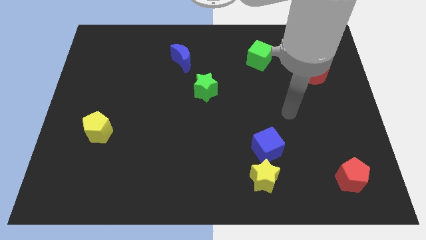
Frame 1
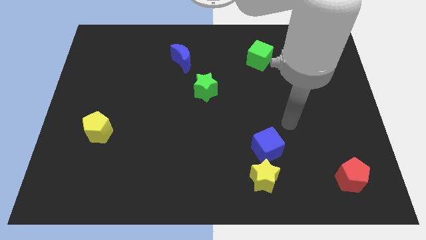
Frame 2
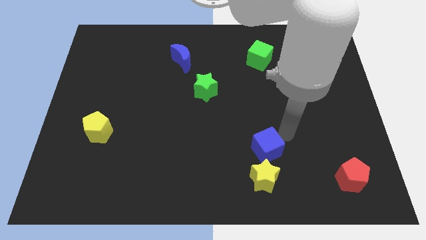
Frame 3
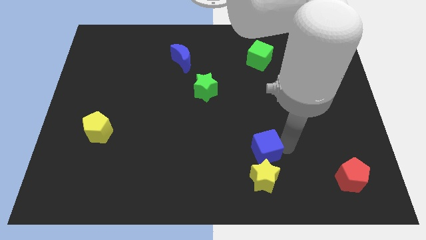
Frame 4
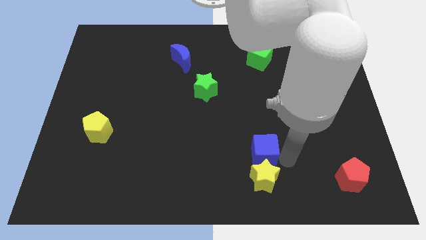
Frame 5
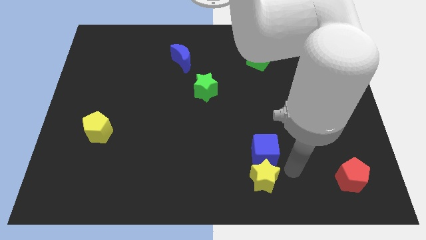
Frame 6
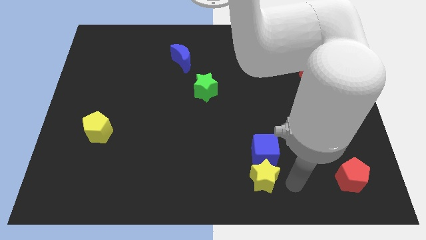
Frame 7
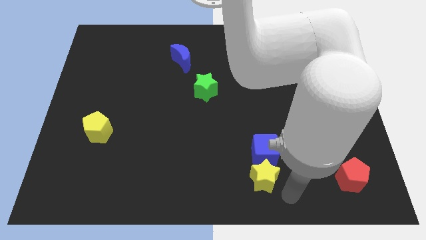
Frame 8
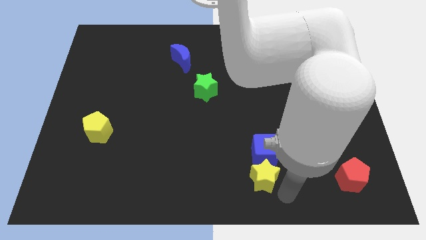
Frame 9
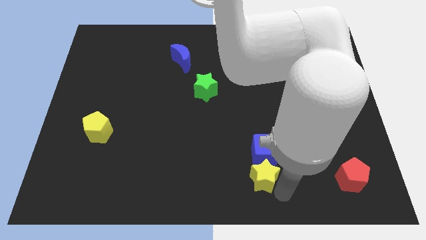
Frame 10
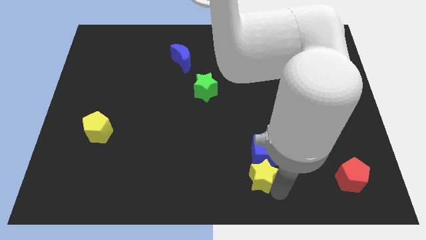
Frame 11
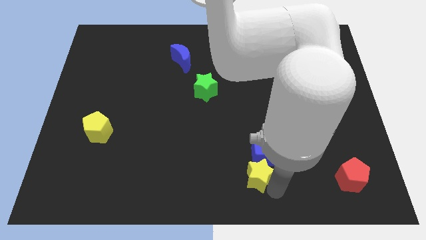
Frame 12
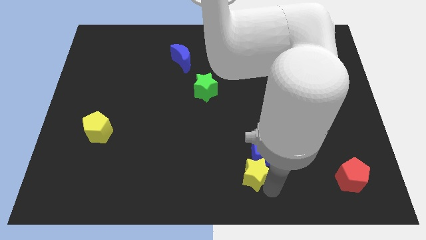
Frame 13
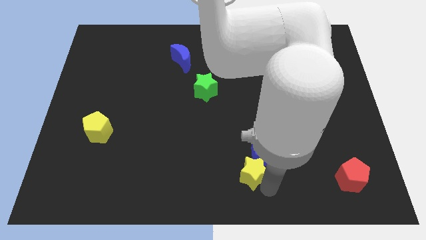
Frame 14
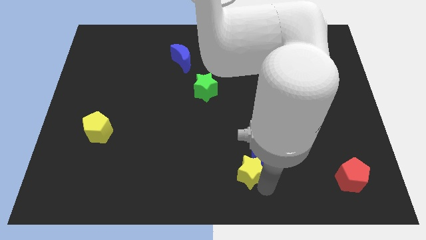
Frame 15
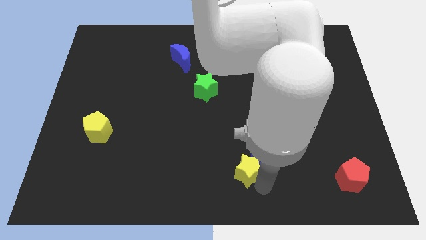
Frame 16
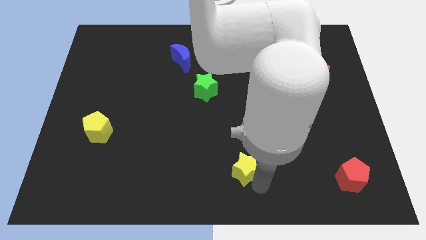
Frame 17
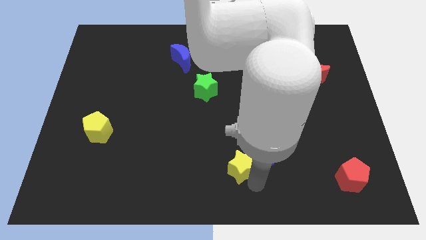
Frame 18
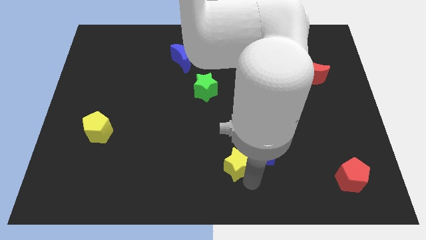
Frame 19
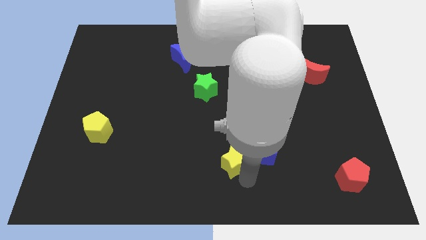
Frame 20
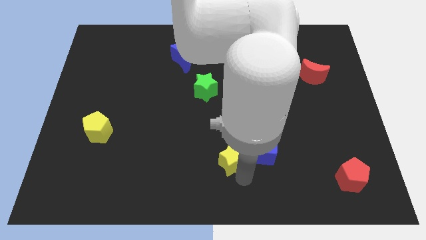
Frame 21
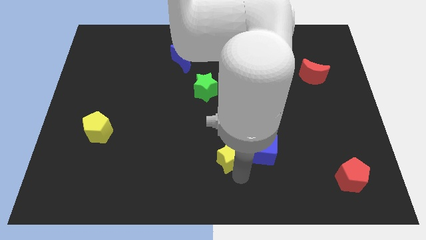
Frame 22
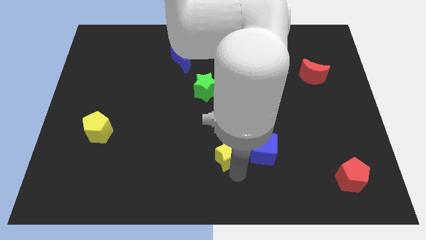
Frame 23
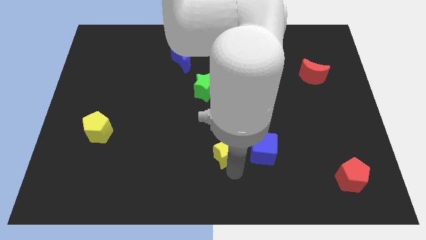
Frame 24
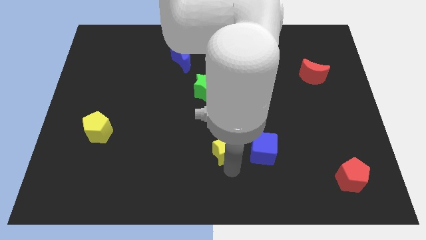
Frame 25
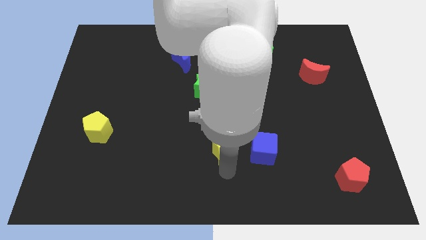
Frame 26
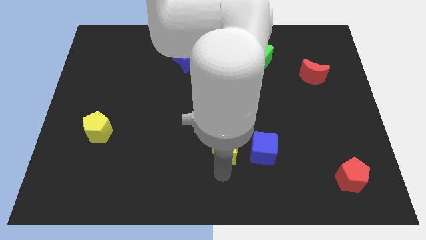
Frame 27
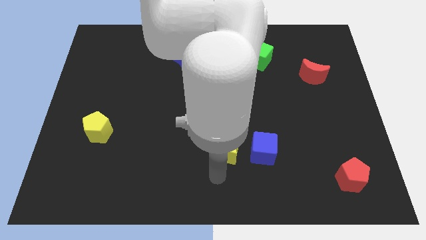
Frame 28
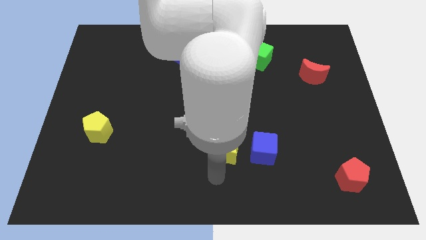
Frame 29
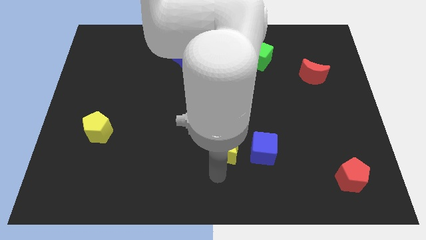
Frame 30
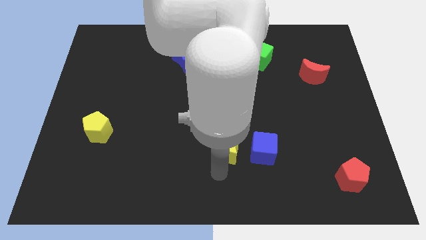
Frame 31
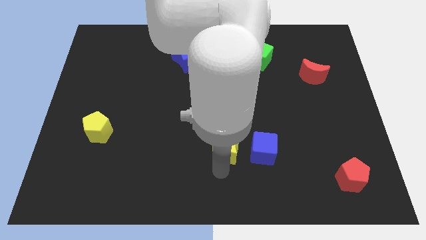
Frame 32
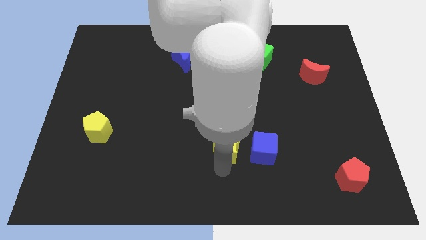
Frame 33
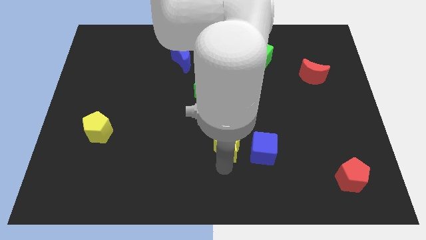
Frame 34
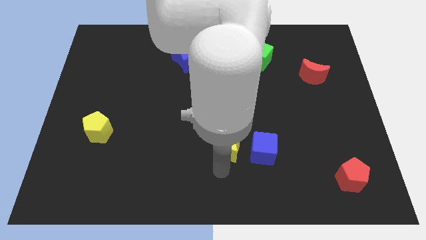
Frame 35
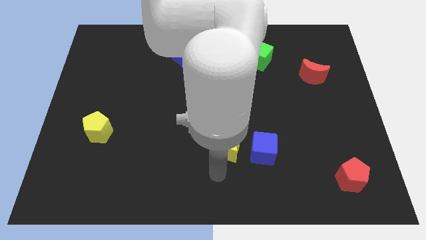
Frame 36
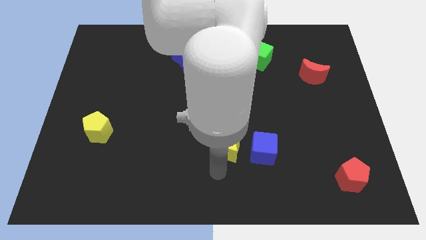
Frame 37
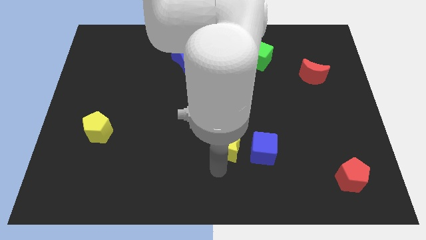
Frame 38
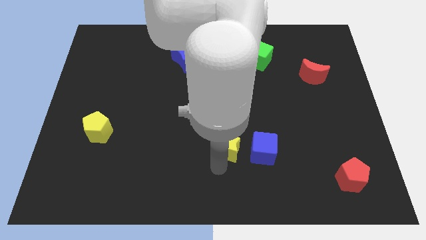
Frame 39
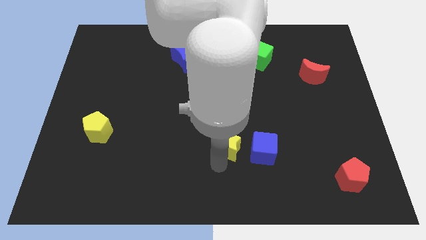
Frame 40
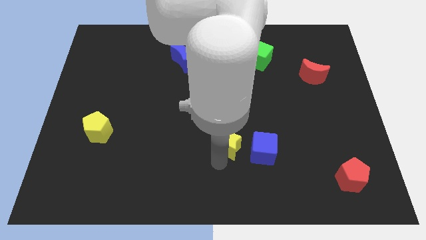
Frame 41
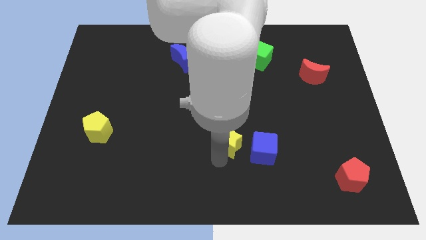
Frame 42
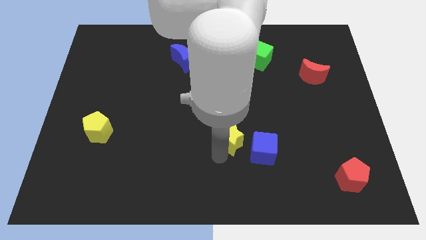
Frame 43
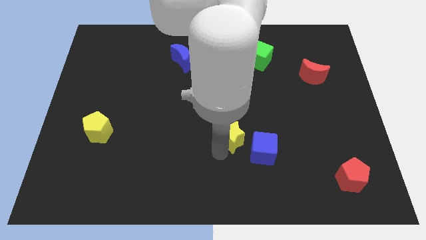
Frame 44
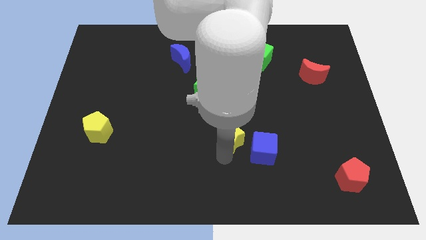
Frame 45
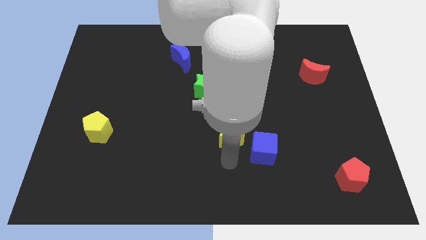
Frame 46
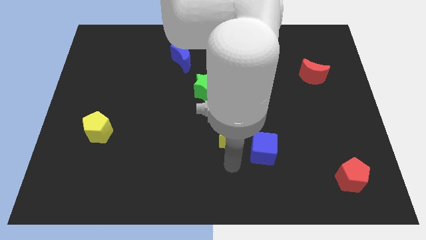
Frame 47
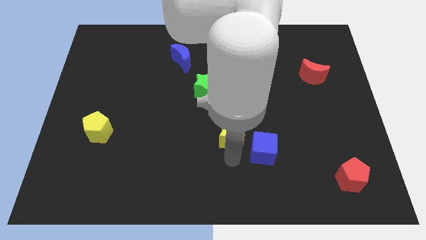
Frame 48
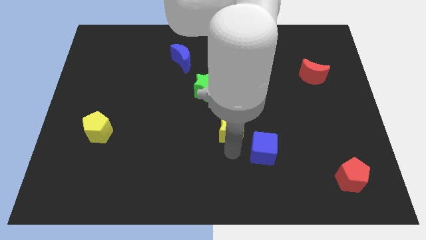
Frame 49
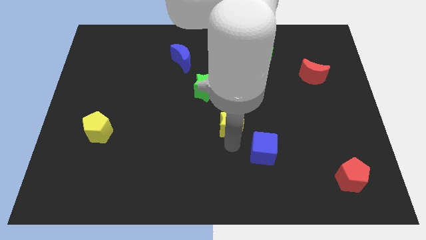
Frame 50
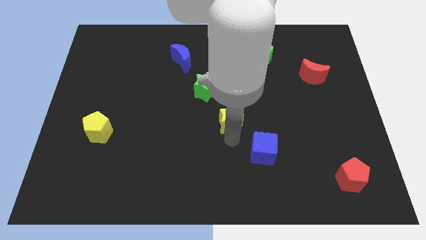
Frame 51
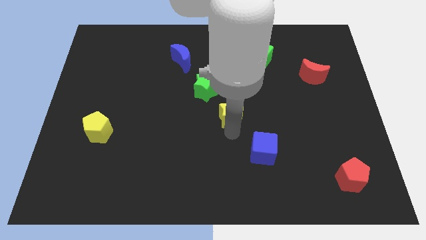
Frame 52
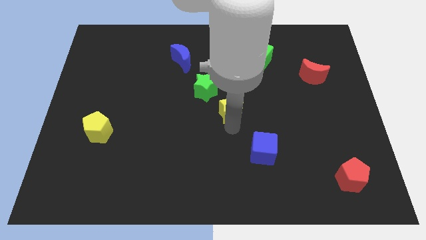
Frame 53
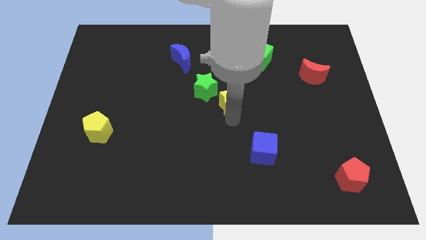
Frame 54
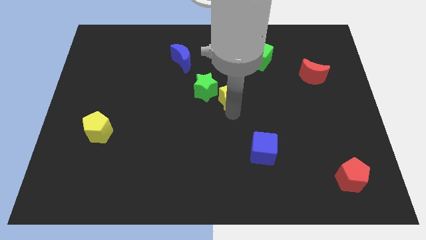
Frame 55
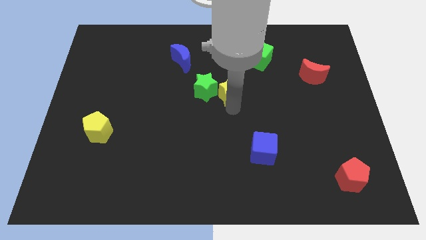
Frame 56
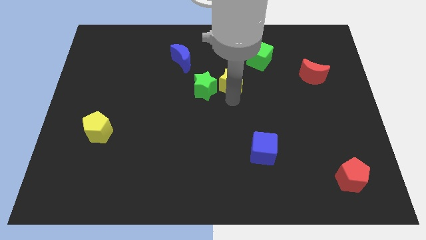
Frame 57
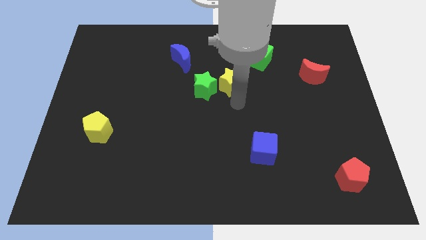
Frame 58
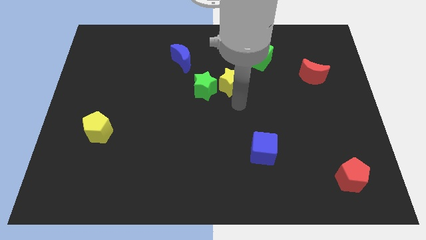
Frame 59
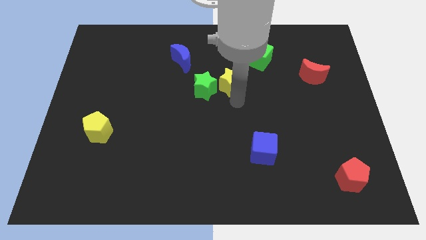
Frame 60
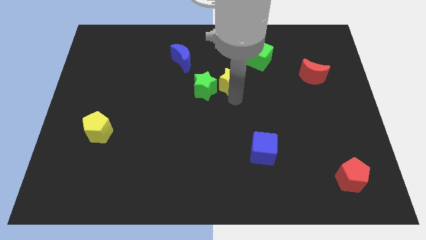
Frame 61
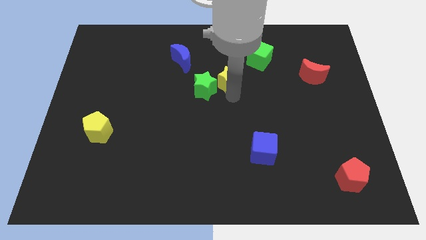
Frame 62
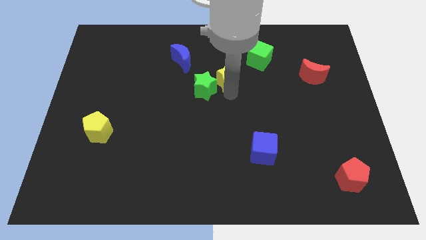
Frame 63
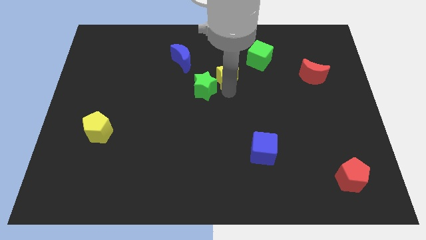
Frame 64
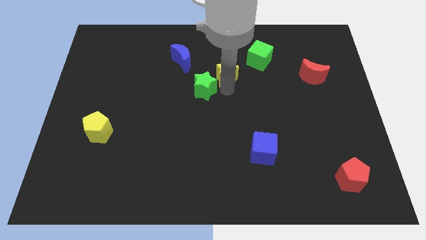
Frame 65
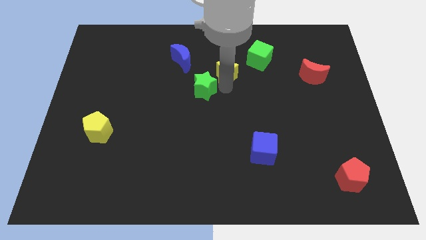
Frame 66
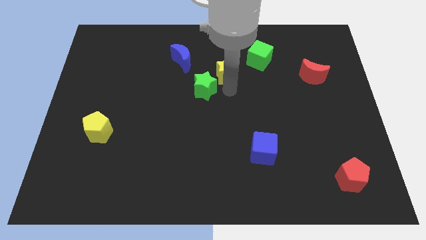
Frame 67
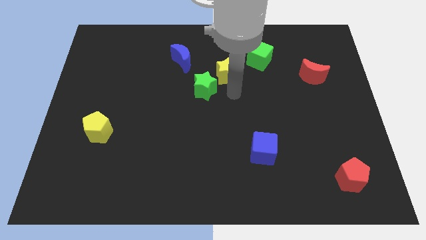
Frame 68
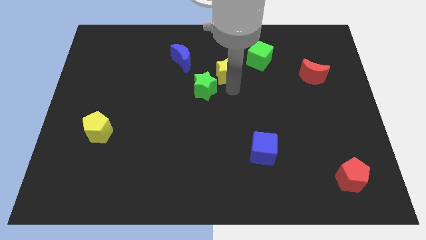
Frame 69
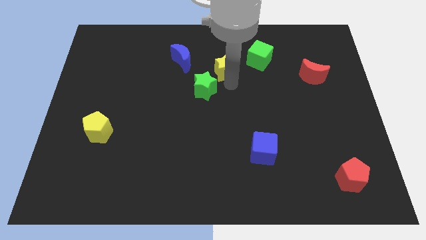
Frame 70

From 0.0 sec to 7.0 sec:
push the yellow star to the right side of the blue moon

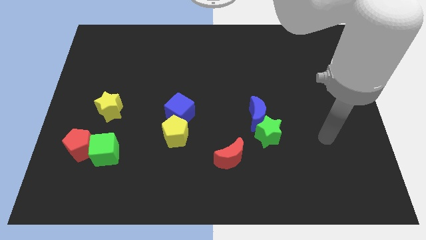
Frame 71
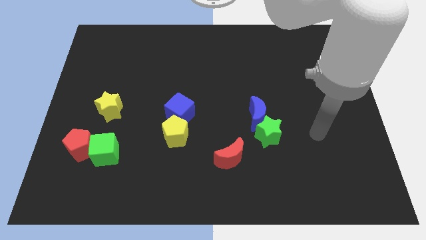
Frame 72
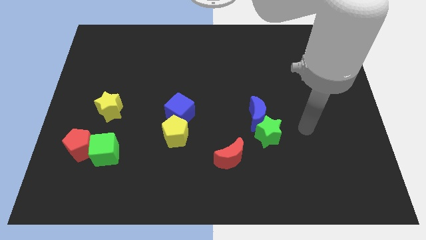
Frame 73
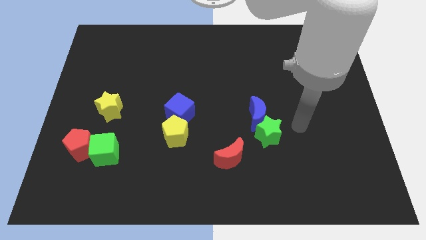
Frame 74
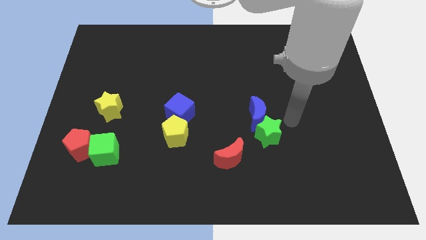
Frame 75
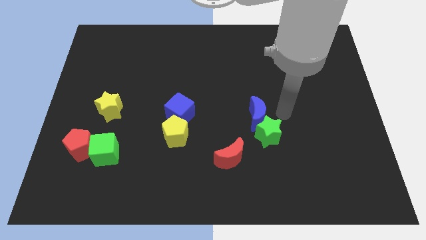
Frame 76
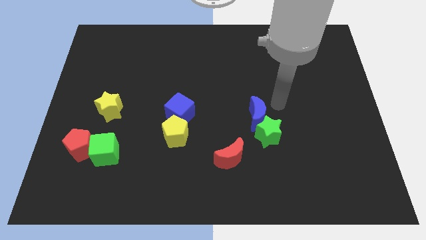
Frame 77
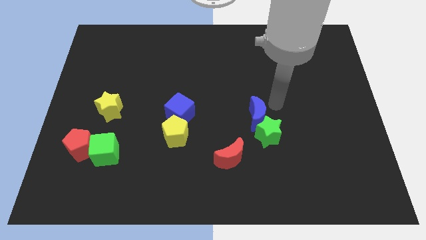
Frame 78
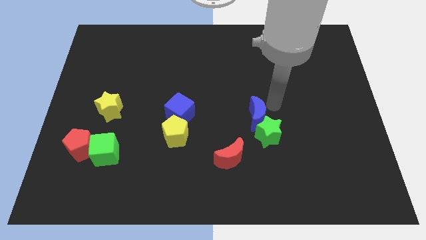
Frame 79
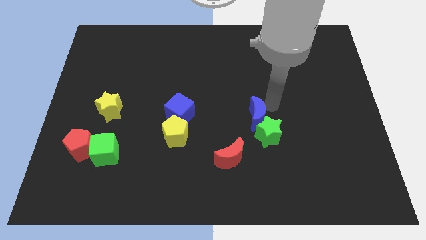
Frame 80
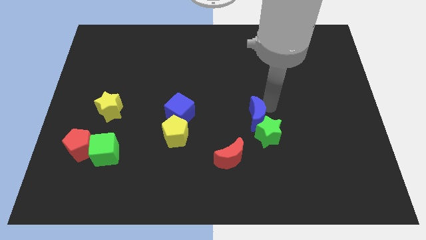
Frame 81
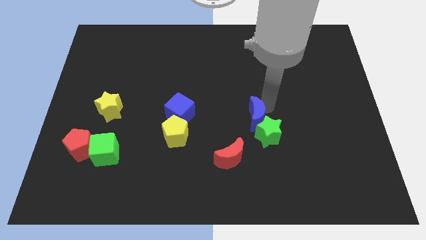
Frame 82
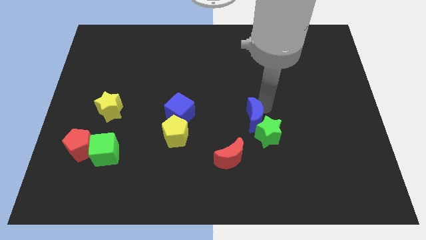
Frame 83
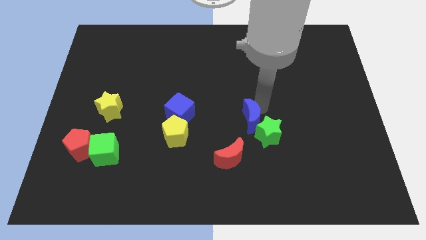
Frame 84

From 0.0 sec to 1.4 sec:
push the blue moon to the left side of the green star
